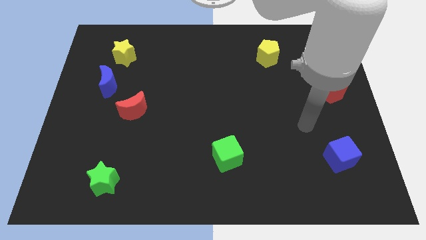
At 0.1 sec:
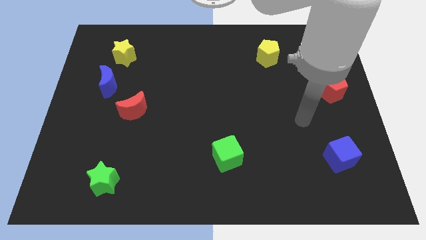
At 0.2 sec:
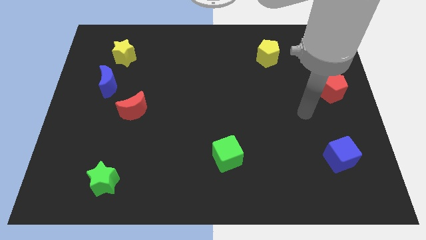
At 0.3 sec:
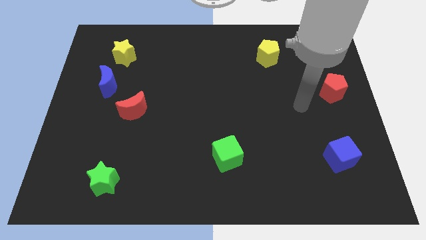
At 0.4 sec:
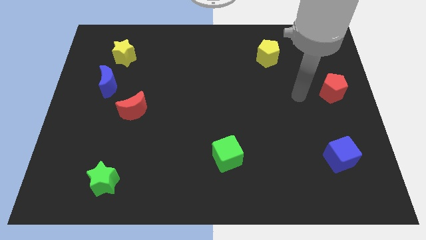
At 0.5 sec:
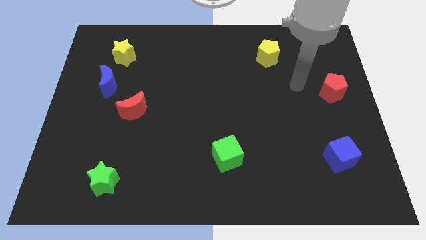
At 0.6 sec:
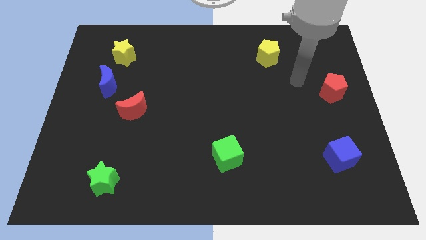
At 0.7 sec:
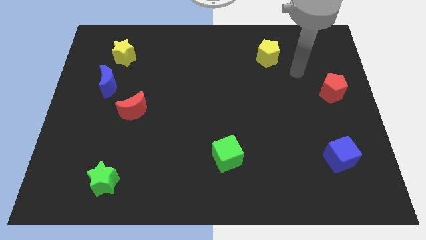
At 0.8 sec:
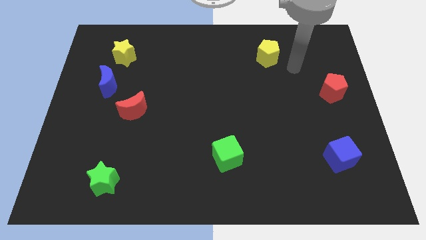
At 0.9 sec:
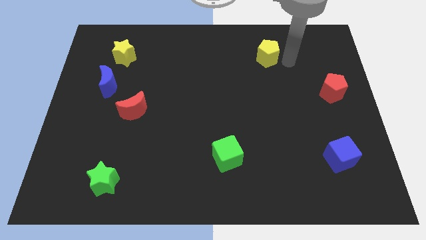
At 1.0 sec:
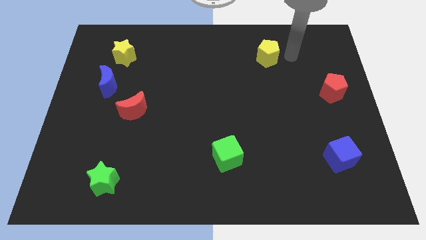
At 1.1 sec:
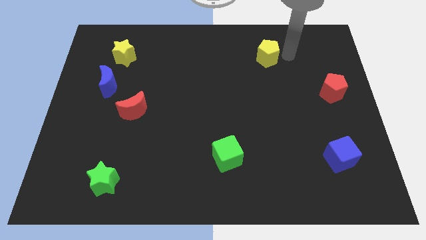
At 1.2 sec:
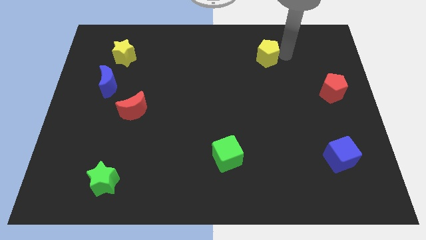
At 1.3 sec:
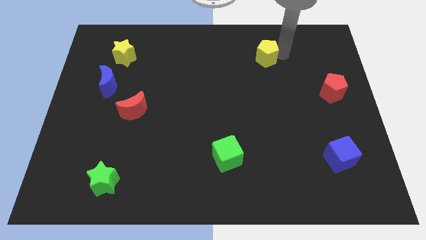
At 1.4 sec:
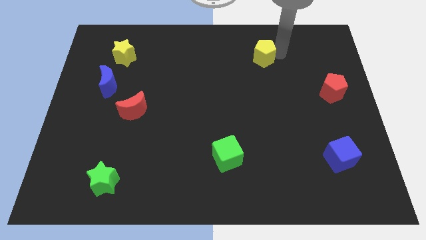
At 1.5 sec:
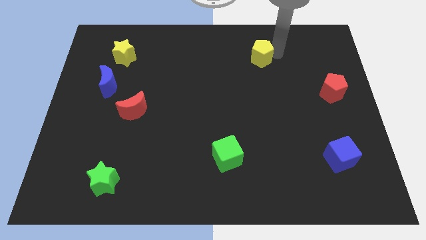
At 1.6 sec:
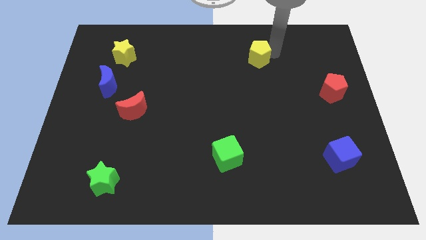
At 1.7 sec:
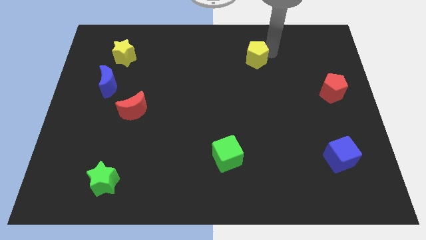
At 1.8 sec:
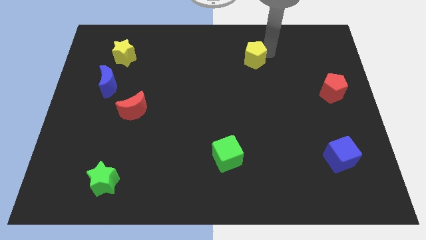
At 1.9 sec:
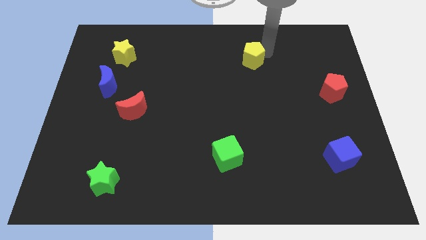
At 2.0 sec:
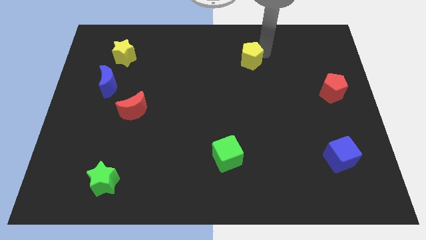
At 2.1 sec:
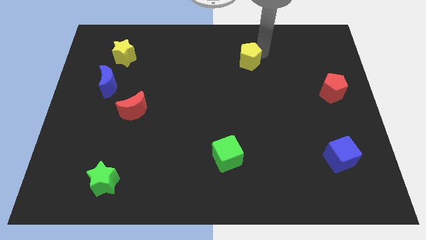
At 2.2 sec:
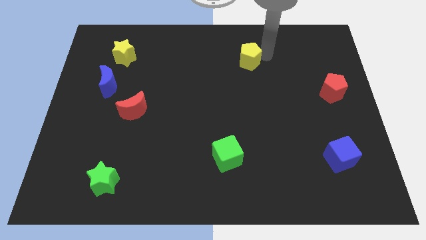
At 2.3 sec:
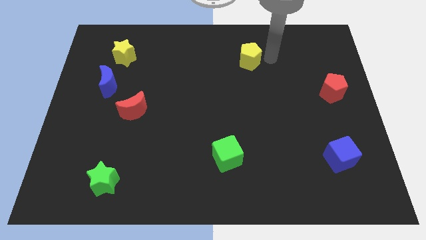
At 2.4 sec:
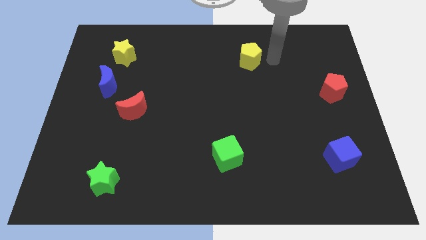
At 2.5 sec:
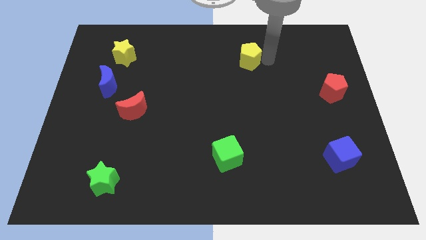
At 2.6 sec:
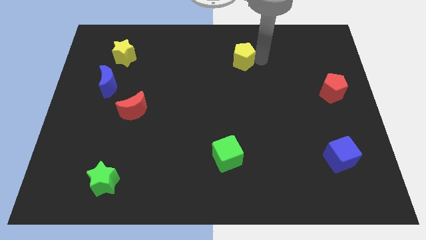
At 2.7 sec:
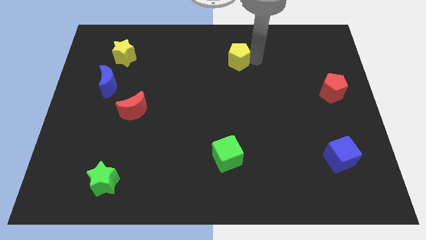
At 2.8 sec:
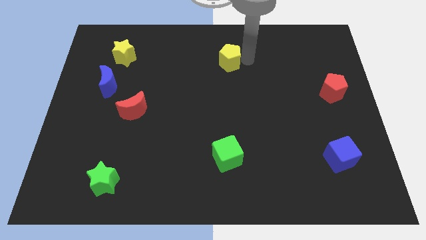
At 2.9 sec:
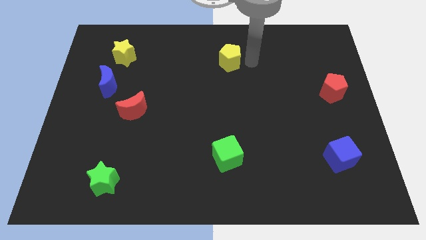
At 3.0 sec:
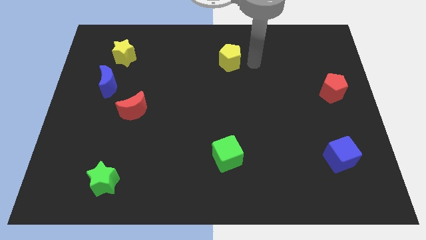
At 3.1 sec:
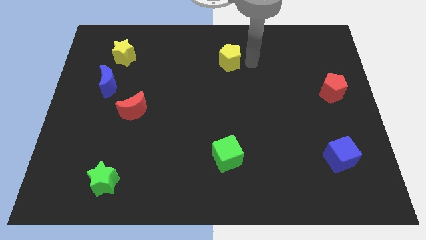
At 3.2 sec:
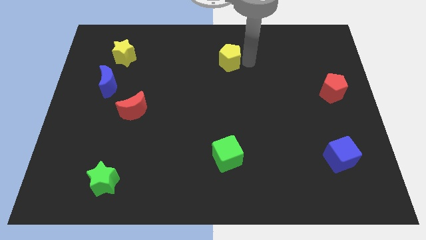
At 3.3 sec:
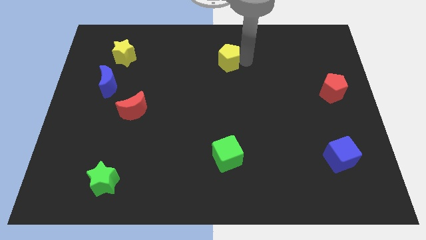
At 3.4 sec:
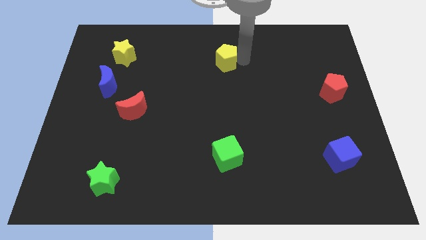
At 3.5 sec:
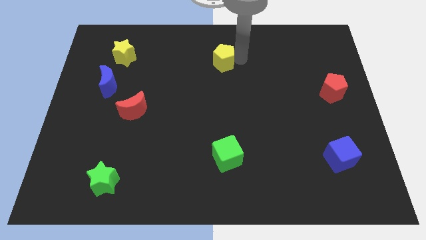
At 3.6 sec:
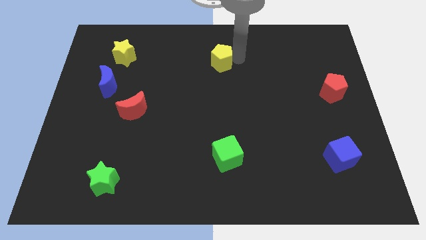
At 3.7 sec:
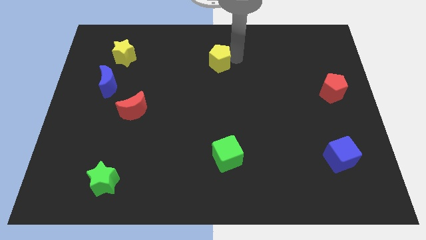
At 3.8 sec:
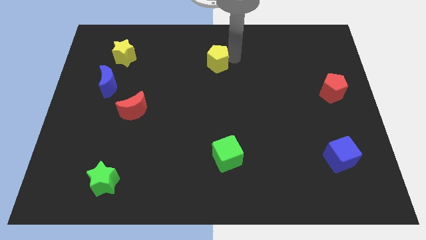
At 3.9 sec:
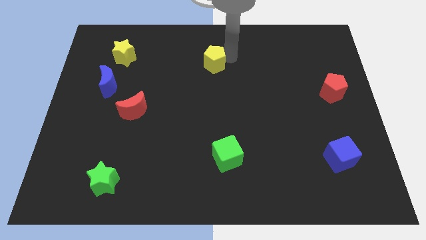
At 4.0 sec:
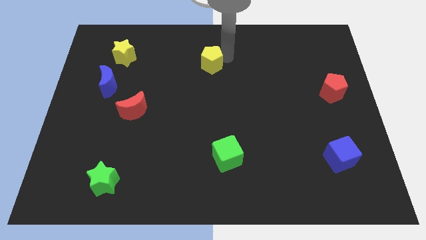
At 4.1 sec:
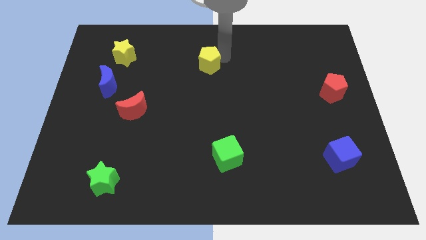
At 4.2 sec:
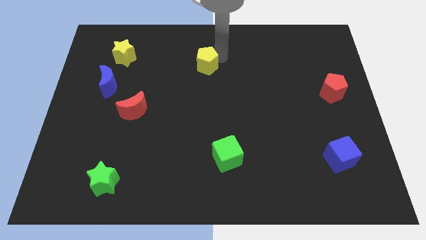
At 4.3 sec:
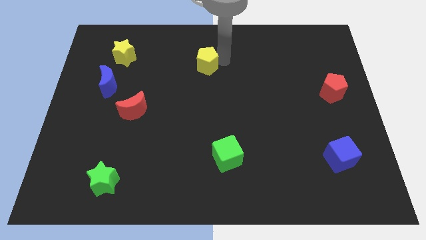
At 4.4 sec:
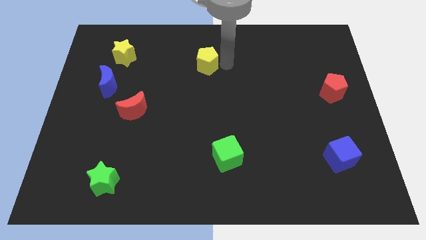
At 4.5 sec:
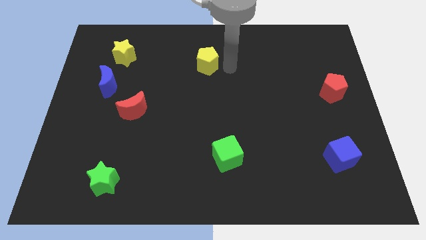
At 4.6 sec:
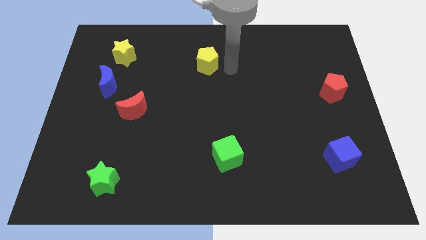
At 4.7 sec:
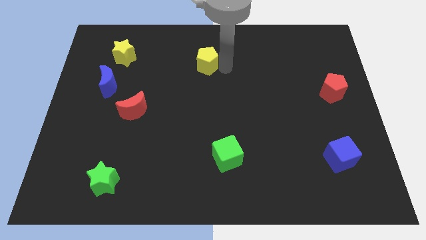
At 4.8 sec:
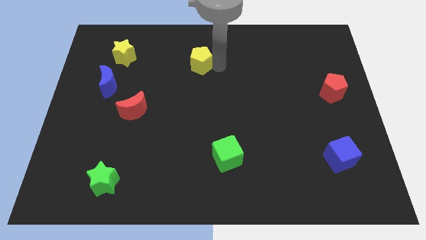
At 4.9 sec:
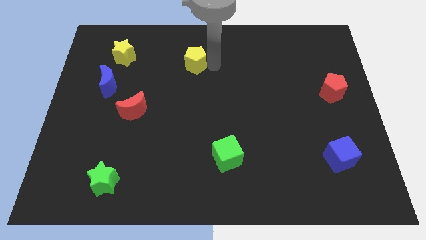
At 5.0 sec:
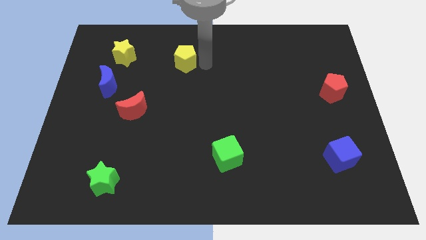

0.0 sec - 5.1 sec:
move the yellow pentagon left

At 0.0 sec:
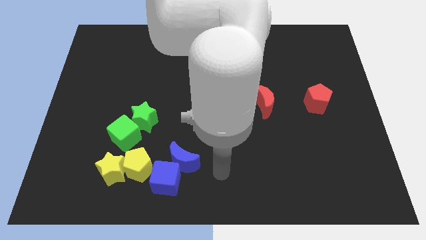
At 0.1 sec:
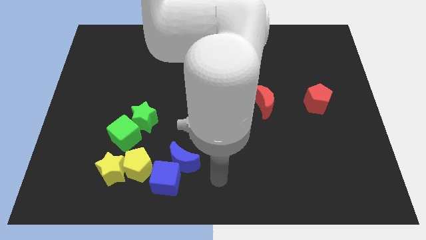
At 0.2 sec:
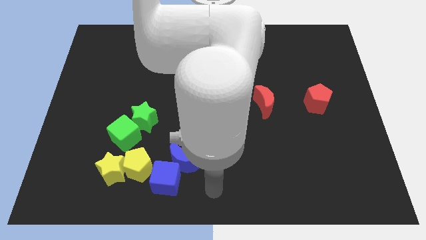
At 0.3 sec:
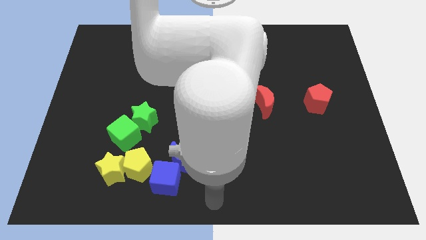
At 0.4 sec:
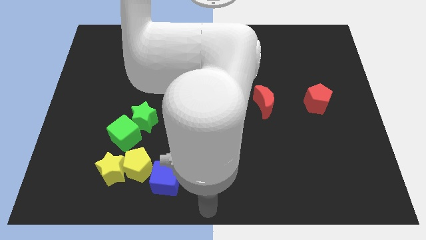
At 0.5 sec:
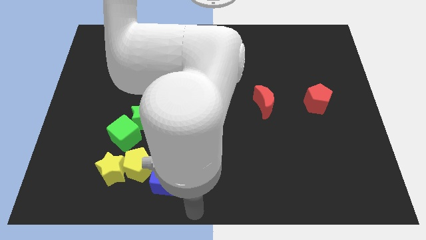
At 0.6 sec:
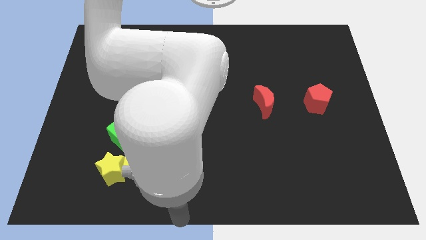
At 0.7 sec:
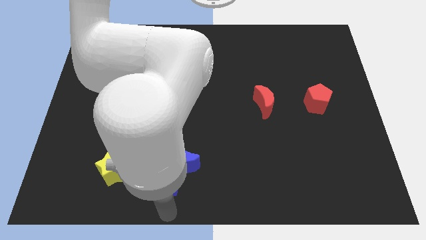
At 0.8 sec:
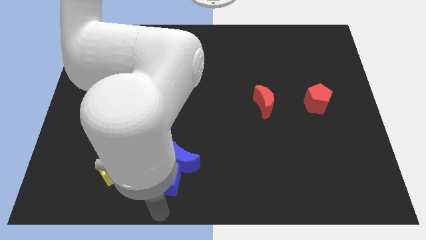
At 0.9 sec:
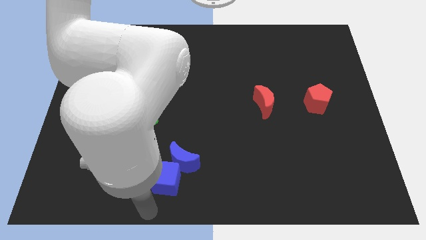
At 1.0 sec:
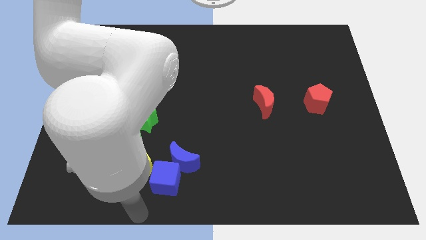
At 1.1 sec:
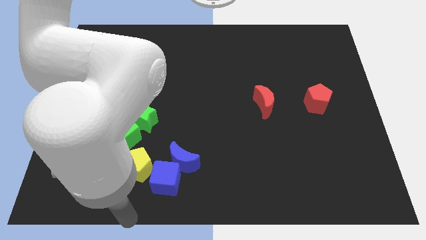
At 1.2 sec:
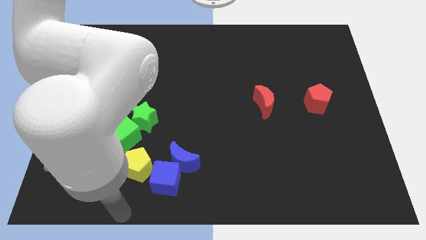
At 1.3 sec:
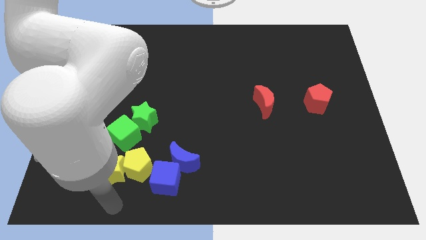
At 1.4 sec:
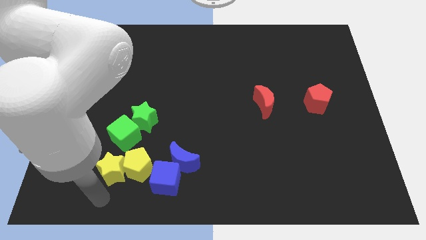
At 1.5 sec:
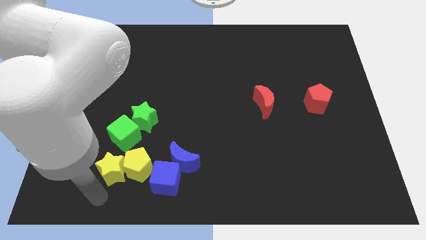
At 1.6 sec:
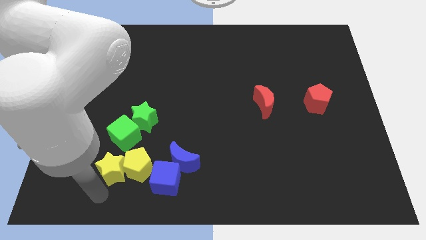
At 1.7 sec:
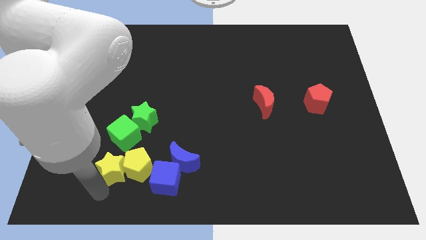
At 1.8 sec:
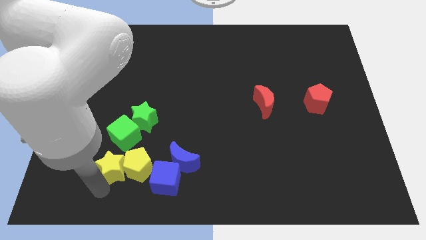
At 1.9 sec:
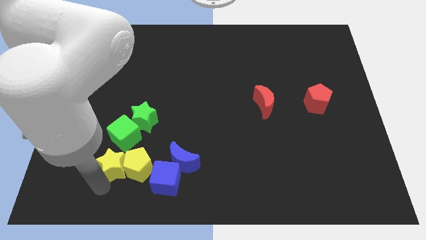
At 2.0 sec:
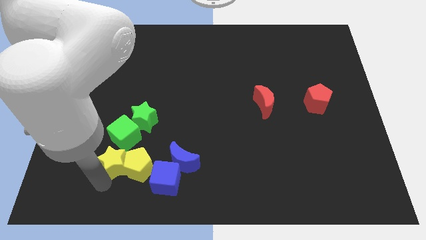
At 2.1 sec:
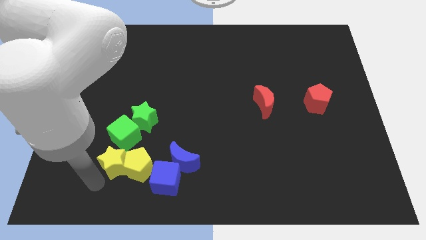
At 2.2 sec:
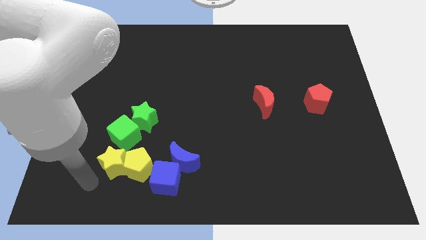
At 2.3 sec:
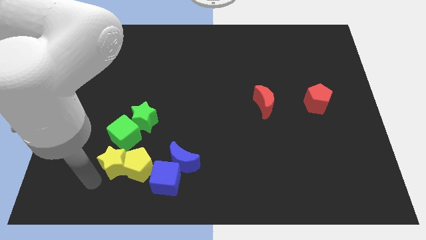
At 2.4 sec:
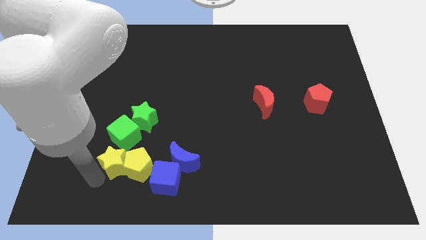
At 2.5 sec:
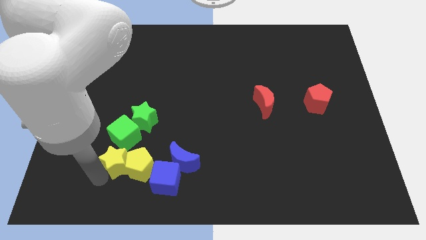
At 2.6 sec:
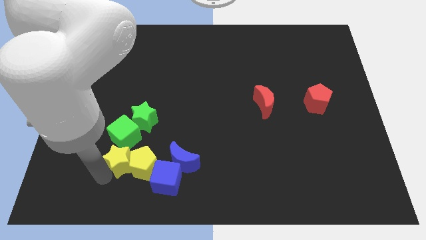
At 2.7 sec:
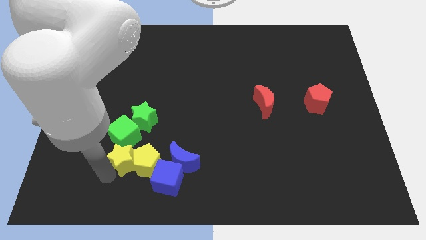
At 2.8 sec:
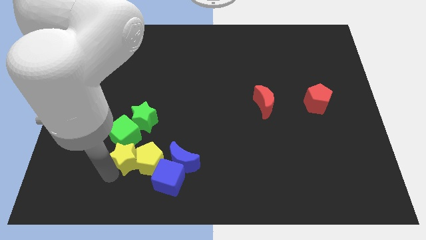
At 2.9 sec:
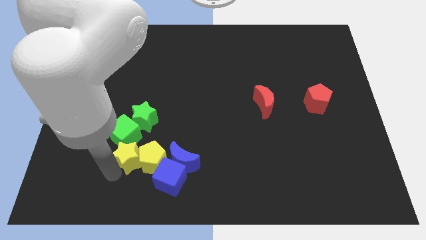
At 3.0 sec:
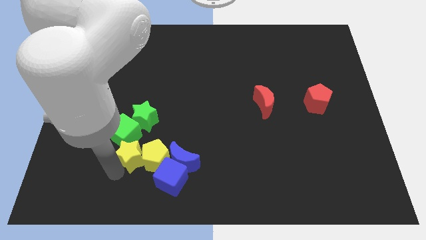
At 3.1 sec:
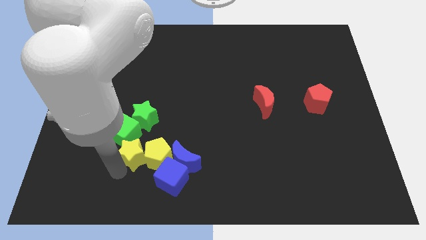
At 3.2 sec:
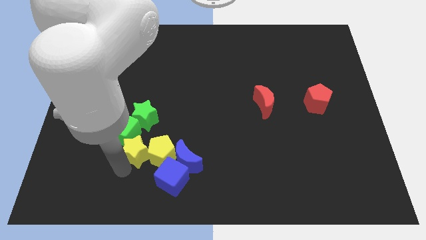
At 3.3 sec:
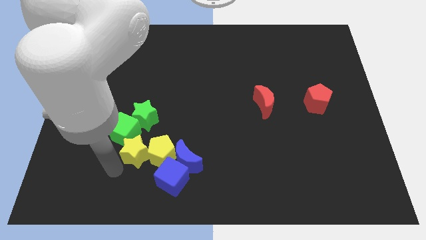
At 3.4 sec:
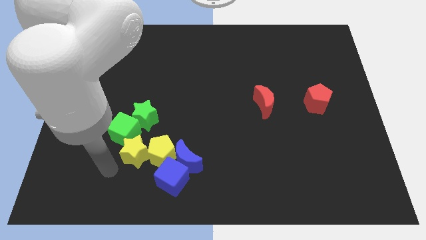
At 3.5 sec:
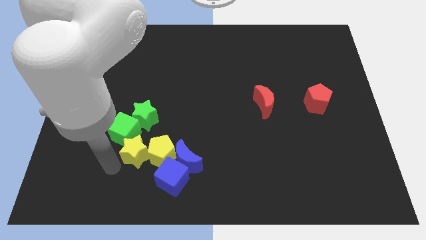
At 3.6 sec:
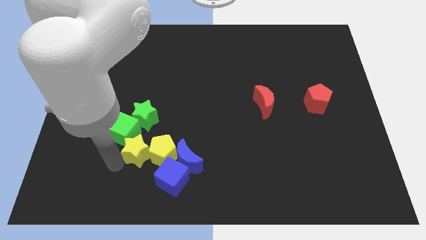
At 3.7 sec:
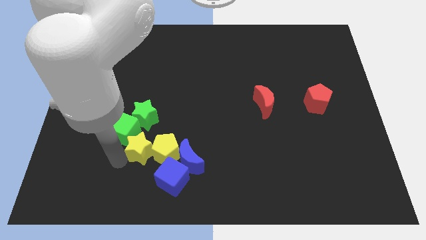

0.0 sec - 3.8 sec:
slide the yellow star a little upwards and to the right diagonally
